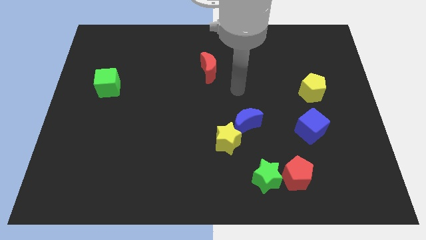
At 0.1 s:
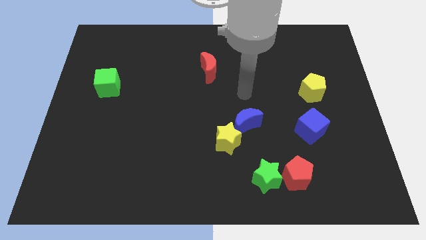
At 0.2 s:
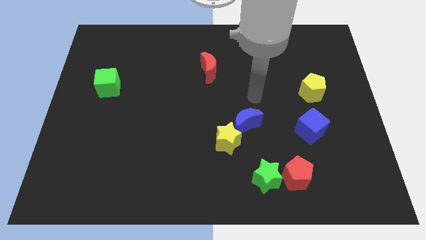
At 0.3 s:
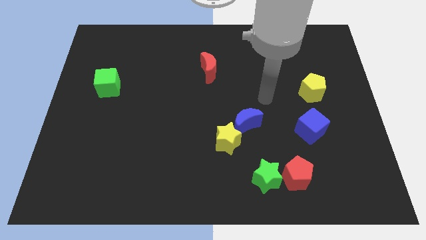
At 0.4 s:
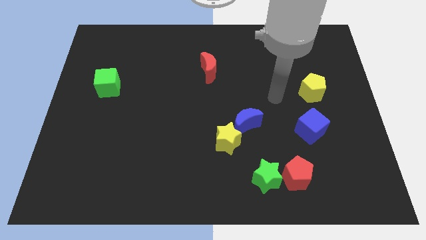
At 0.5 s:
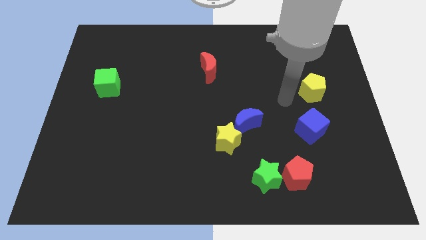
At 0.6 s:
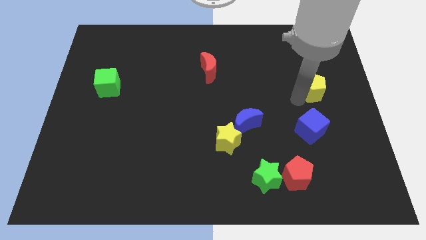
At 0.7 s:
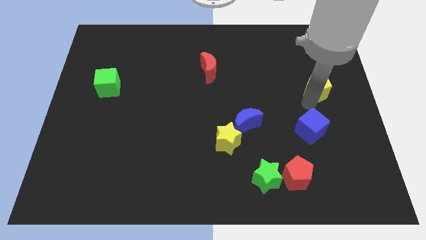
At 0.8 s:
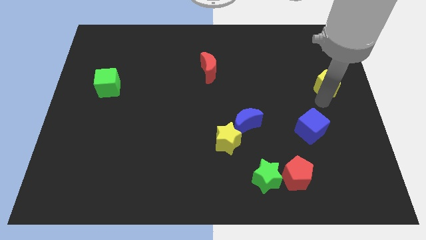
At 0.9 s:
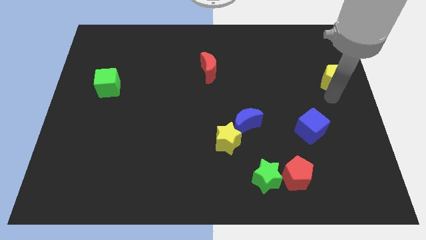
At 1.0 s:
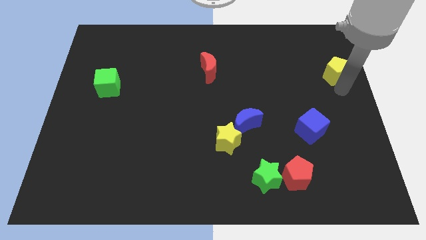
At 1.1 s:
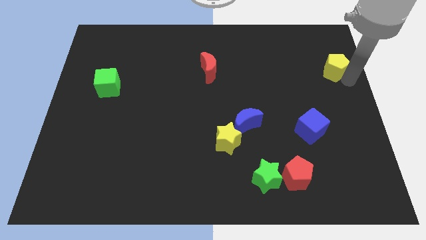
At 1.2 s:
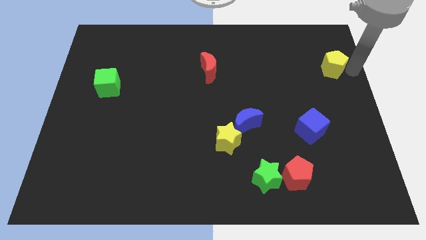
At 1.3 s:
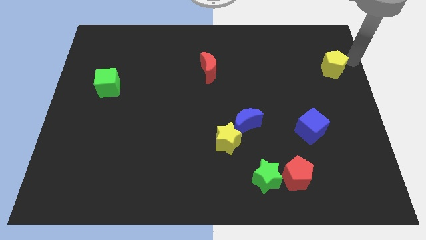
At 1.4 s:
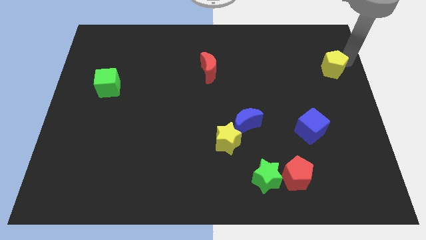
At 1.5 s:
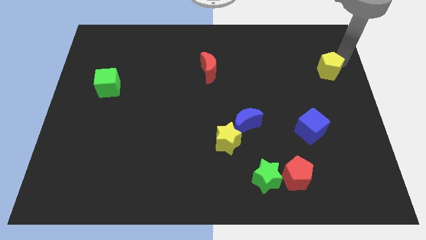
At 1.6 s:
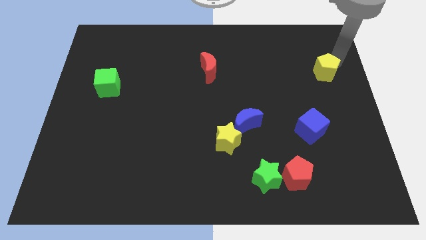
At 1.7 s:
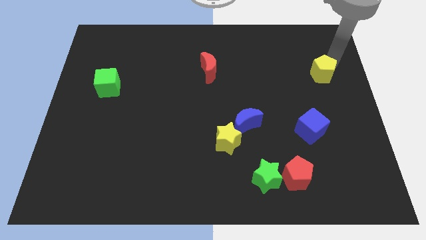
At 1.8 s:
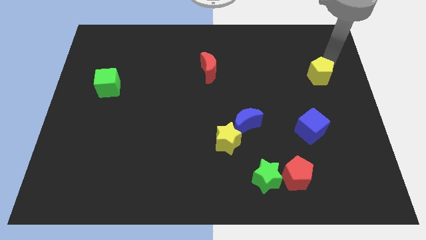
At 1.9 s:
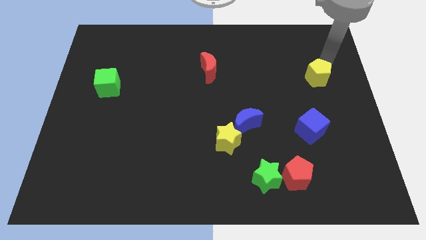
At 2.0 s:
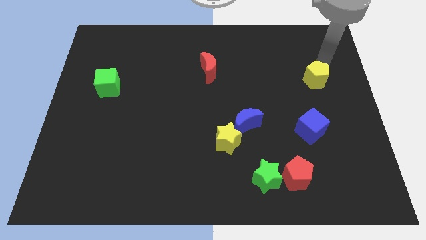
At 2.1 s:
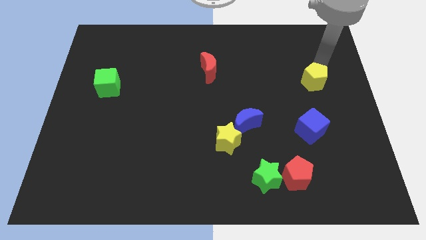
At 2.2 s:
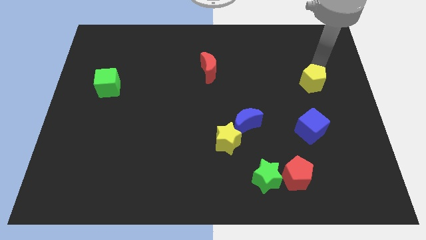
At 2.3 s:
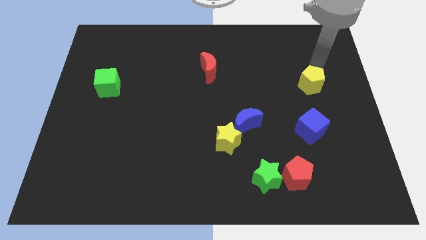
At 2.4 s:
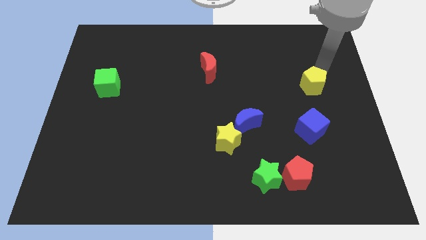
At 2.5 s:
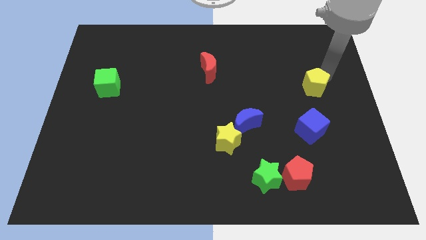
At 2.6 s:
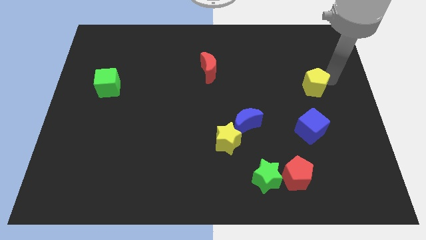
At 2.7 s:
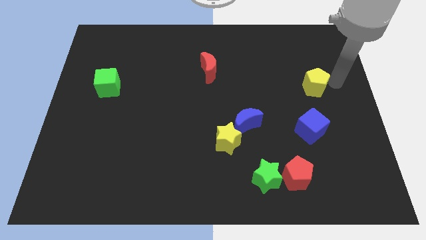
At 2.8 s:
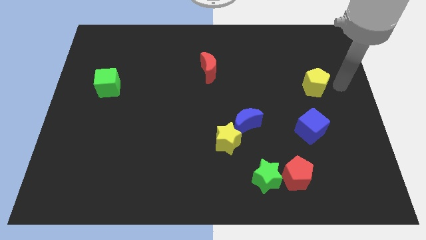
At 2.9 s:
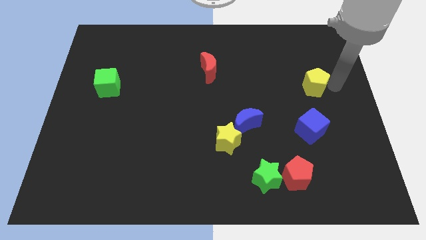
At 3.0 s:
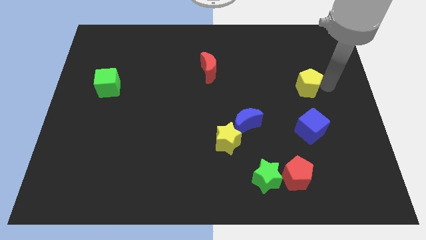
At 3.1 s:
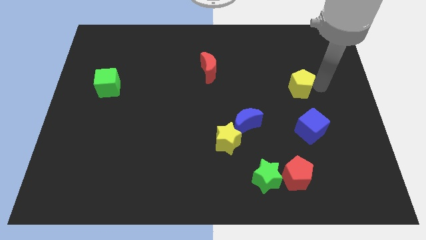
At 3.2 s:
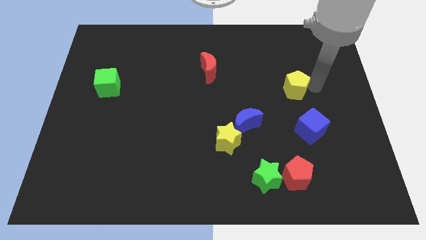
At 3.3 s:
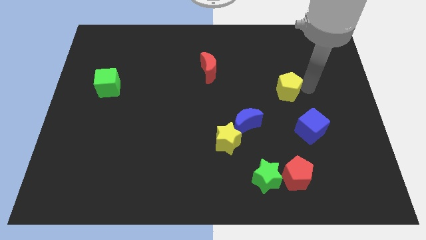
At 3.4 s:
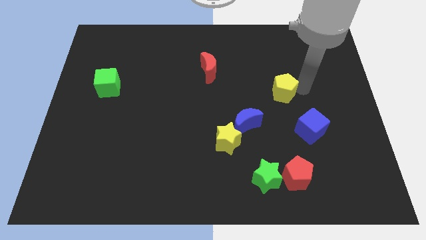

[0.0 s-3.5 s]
push the yellow pentagon a little bit left

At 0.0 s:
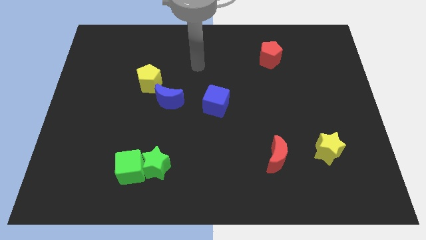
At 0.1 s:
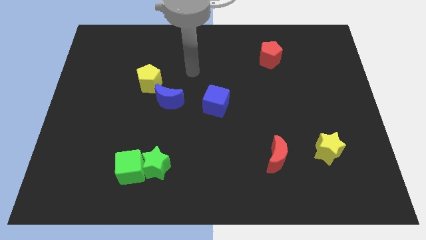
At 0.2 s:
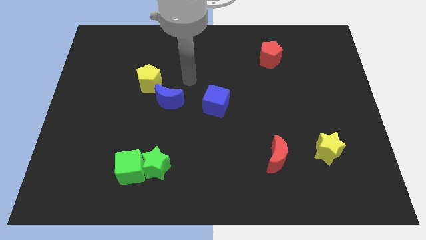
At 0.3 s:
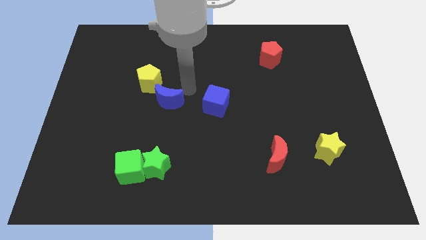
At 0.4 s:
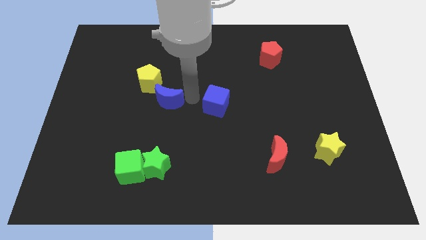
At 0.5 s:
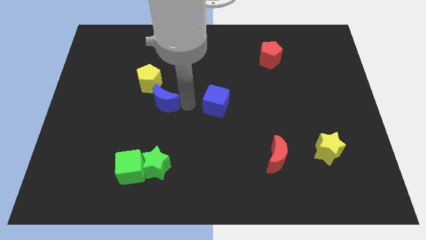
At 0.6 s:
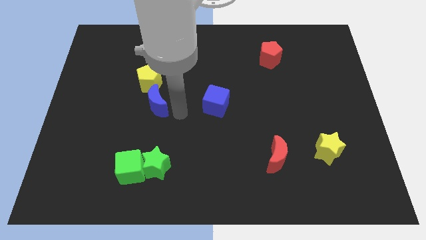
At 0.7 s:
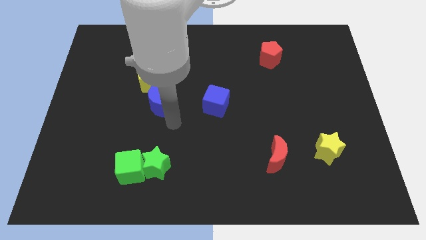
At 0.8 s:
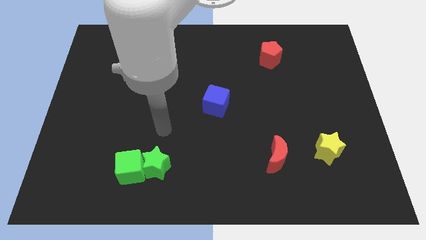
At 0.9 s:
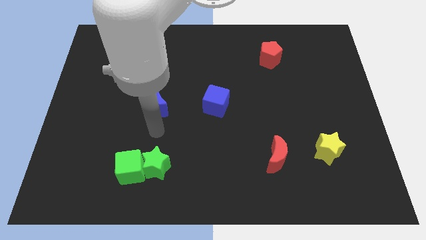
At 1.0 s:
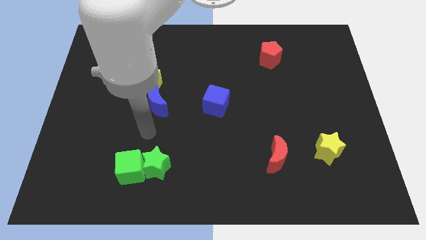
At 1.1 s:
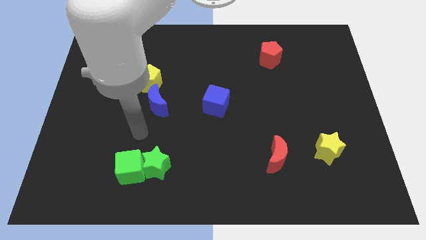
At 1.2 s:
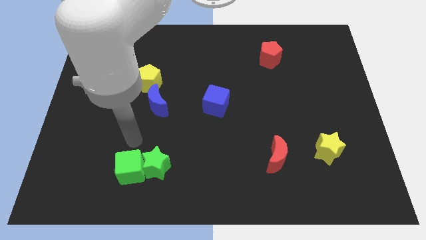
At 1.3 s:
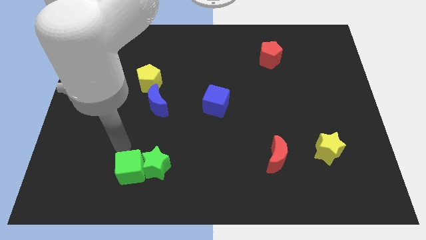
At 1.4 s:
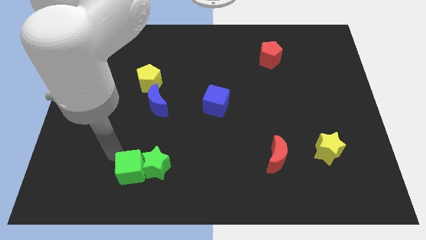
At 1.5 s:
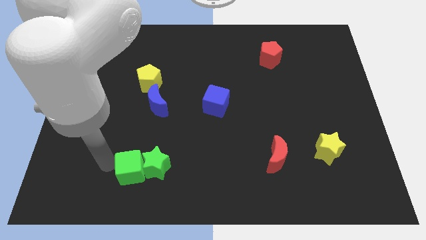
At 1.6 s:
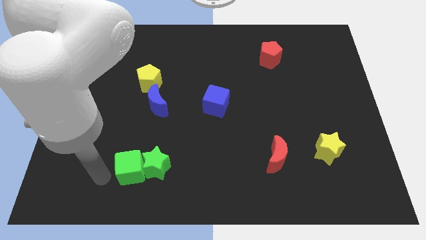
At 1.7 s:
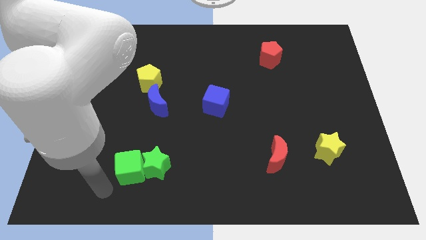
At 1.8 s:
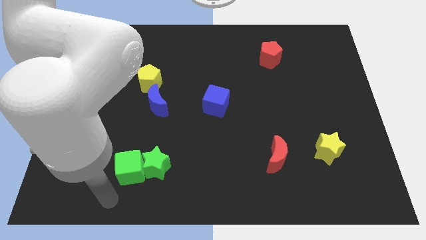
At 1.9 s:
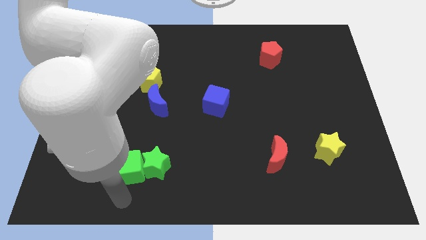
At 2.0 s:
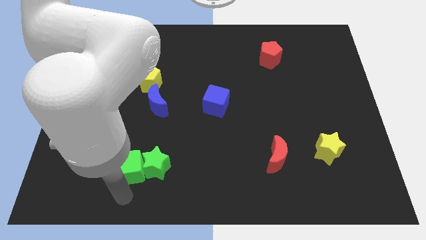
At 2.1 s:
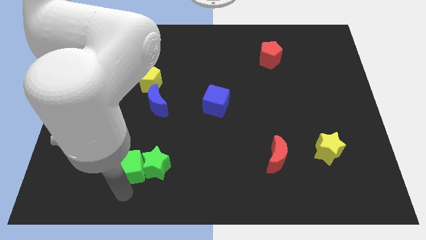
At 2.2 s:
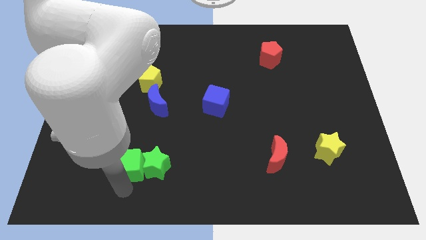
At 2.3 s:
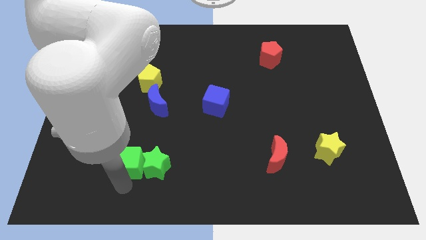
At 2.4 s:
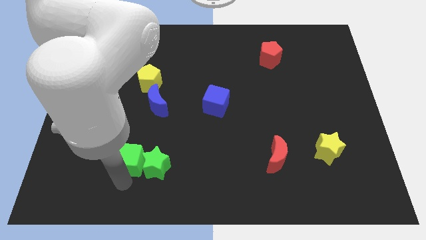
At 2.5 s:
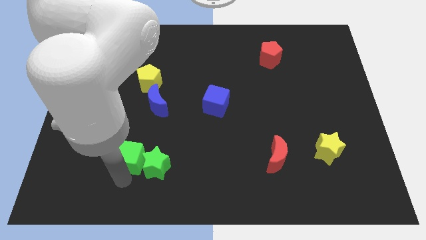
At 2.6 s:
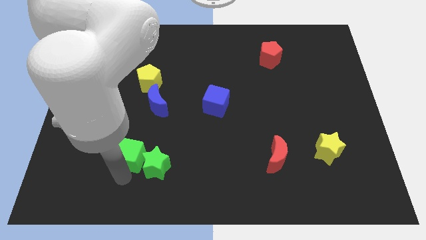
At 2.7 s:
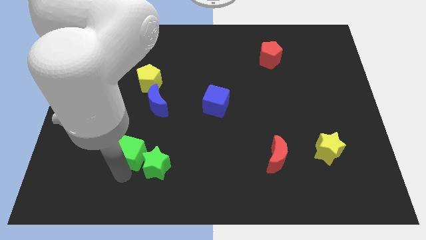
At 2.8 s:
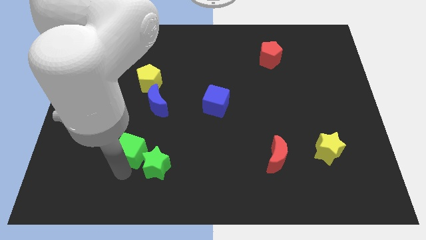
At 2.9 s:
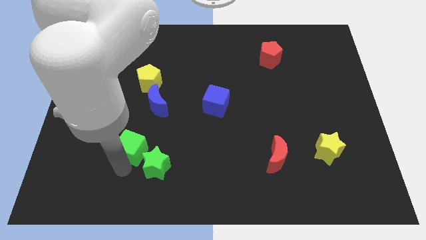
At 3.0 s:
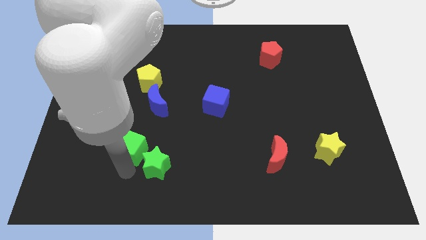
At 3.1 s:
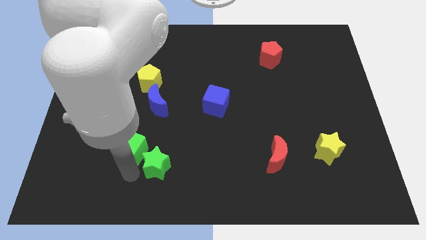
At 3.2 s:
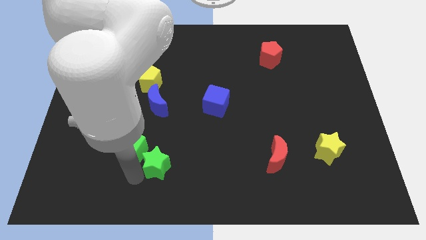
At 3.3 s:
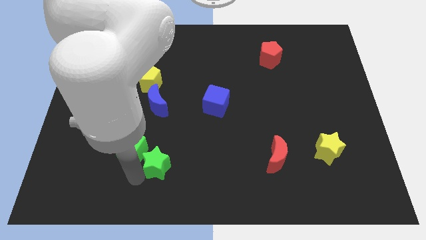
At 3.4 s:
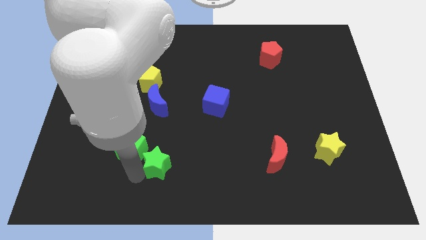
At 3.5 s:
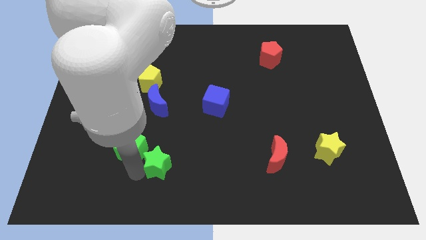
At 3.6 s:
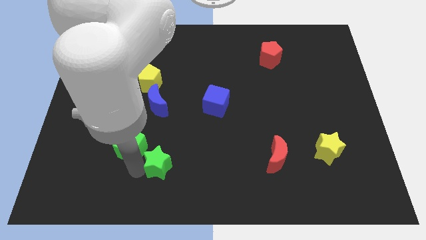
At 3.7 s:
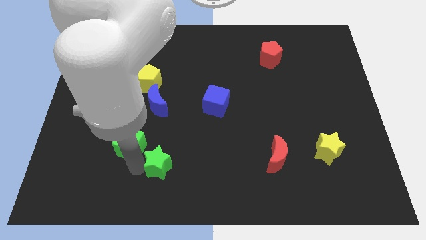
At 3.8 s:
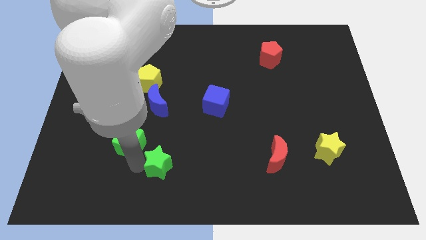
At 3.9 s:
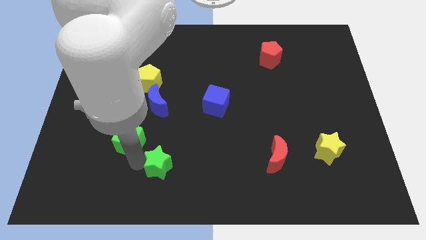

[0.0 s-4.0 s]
slide the green cube up a bit

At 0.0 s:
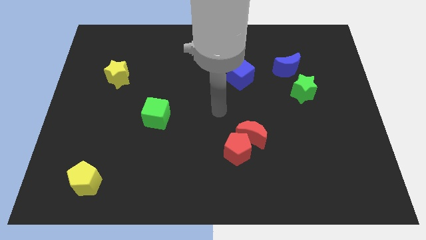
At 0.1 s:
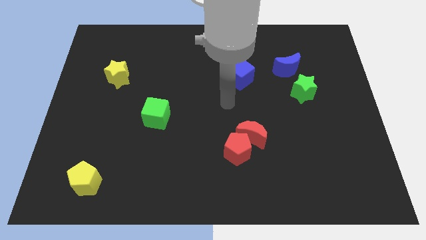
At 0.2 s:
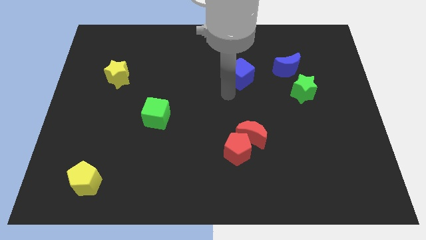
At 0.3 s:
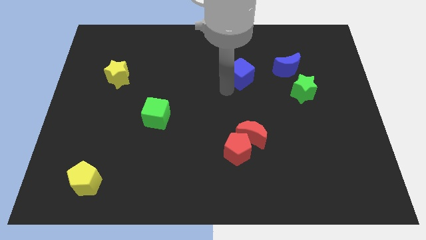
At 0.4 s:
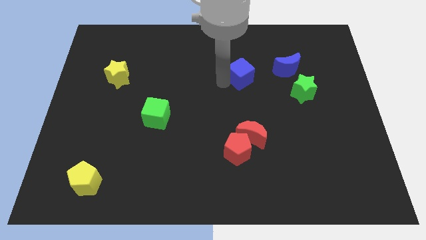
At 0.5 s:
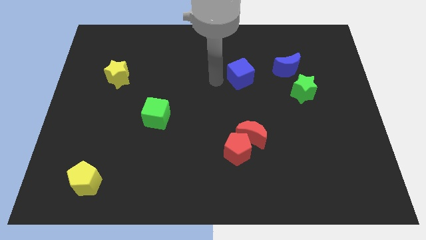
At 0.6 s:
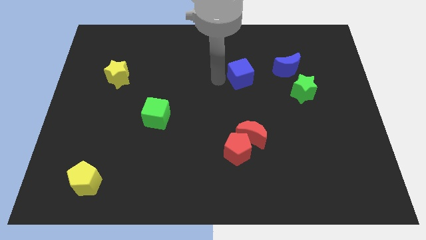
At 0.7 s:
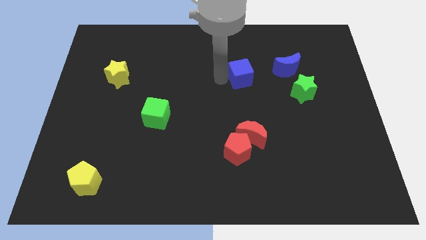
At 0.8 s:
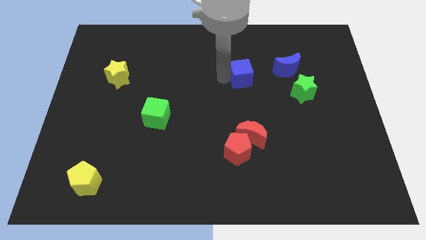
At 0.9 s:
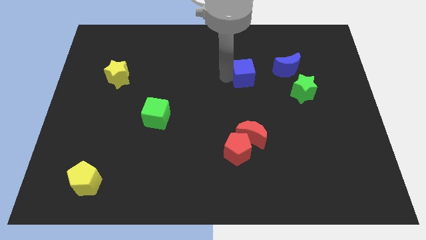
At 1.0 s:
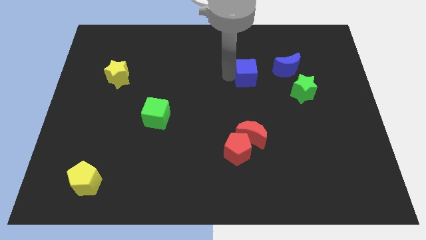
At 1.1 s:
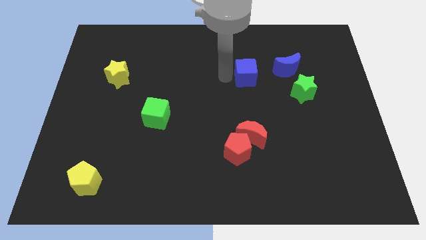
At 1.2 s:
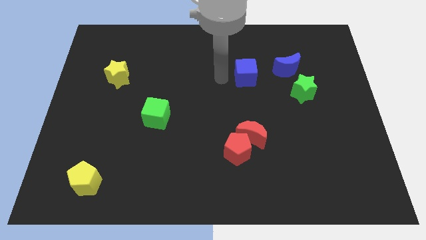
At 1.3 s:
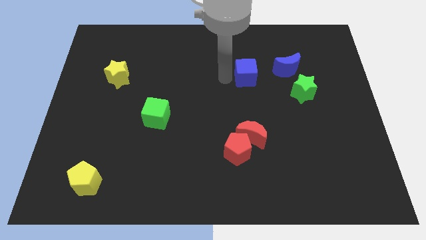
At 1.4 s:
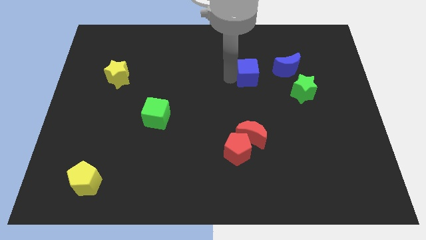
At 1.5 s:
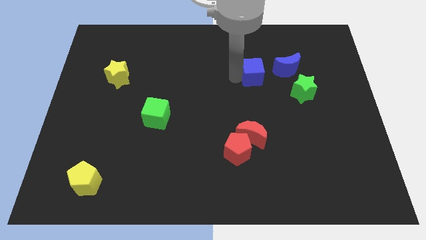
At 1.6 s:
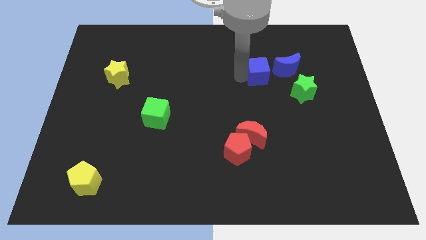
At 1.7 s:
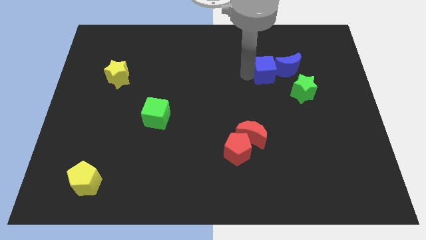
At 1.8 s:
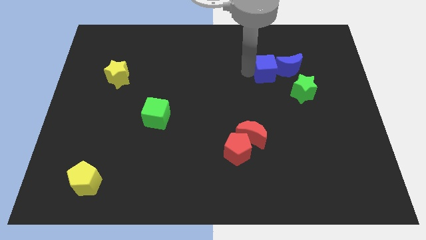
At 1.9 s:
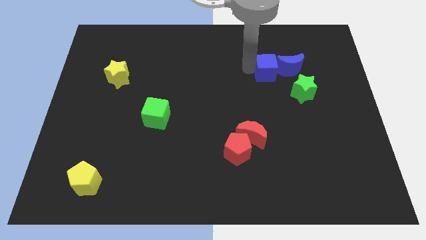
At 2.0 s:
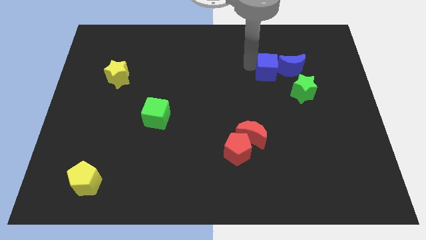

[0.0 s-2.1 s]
slightly push the blue cube to the right
